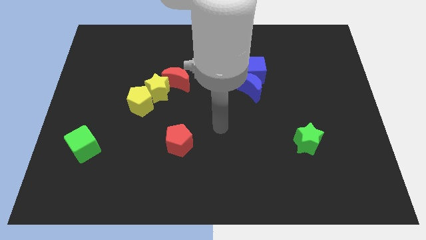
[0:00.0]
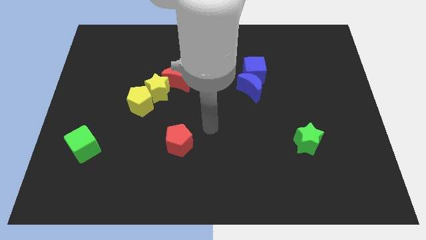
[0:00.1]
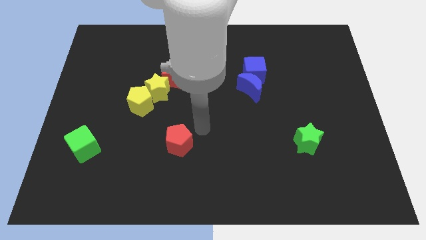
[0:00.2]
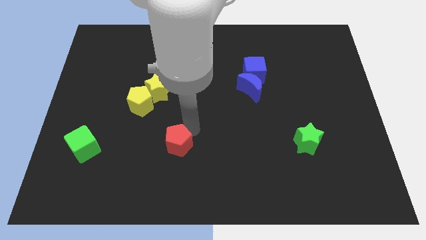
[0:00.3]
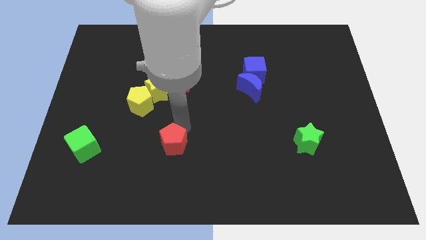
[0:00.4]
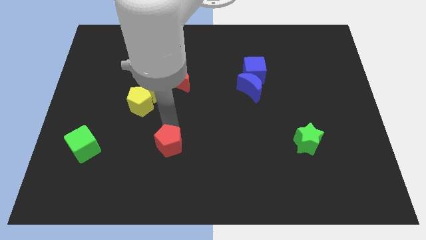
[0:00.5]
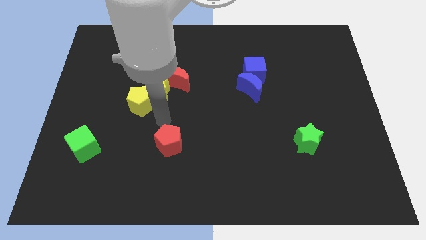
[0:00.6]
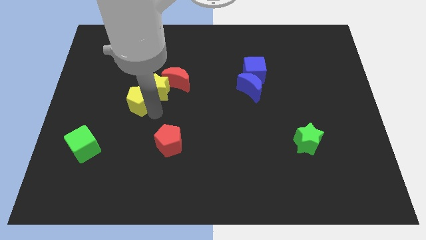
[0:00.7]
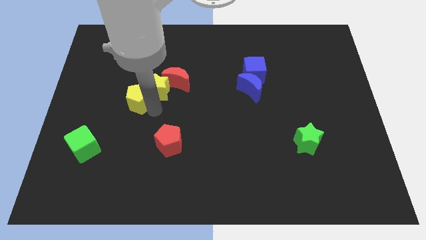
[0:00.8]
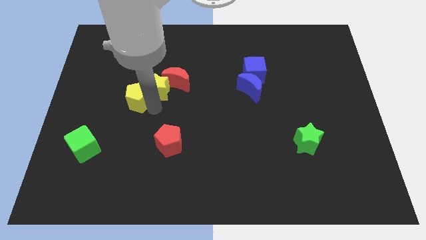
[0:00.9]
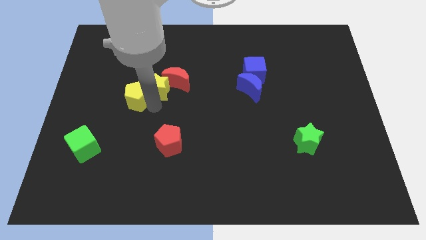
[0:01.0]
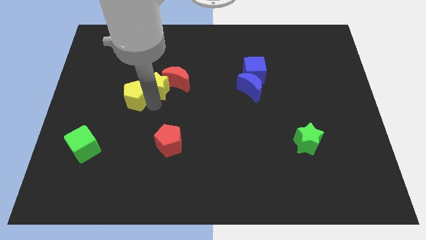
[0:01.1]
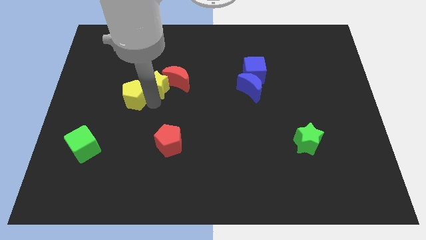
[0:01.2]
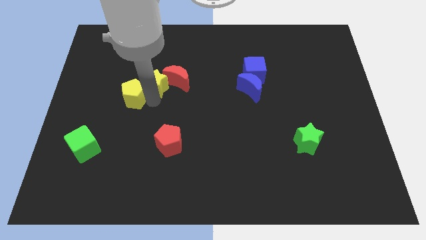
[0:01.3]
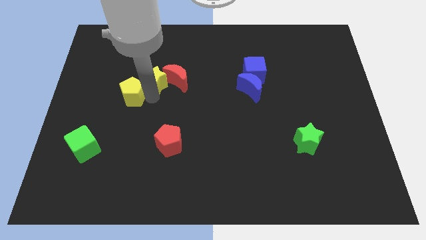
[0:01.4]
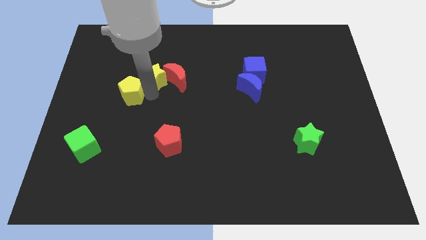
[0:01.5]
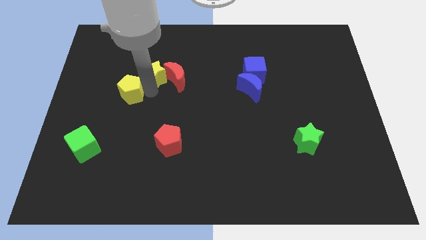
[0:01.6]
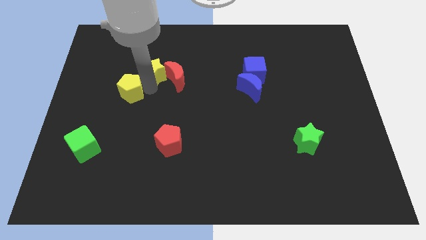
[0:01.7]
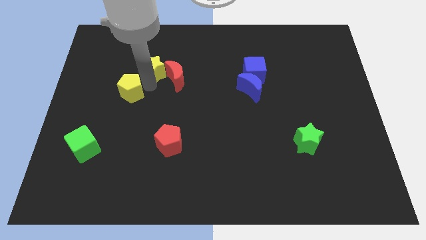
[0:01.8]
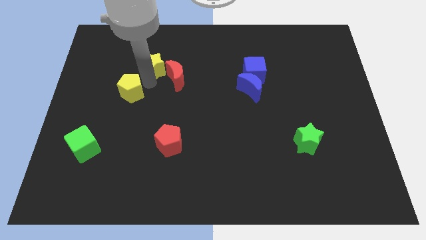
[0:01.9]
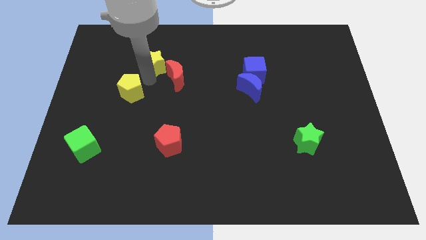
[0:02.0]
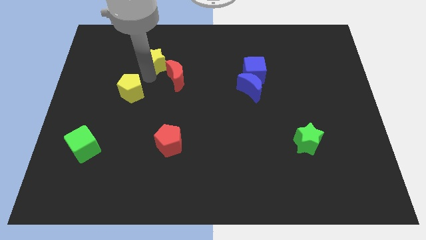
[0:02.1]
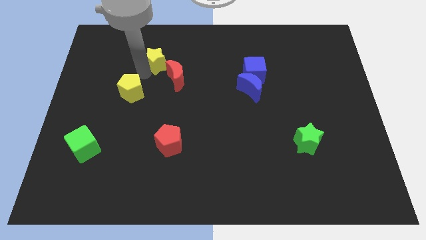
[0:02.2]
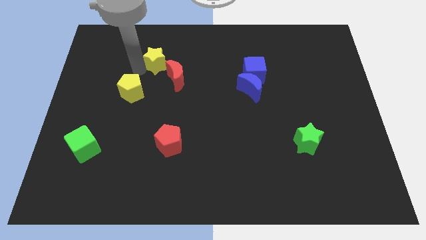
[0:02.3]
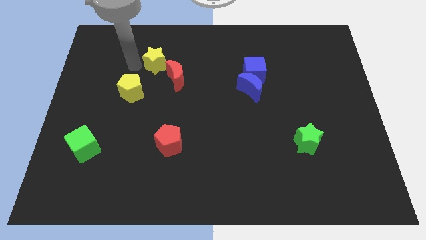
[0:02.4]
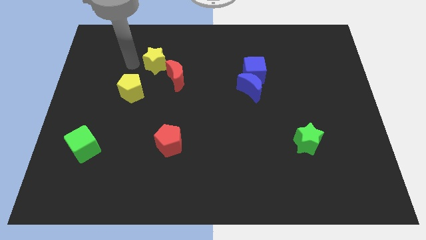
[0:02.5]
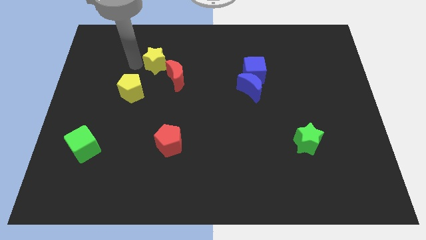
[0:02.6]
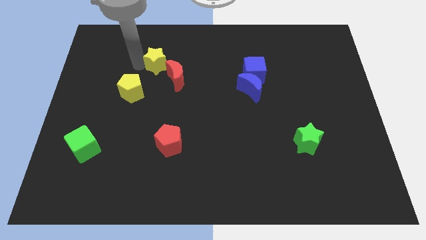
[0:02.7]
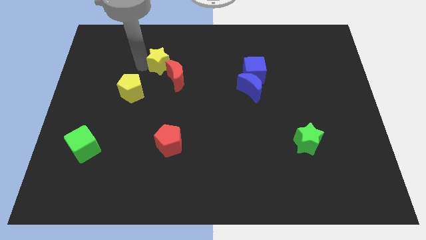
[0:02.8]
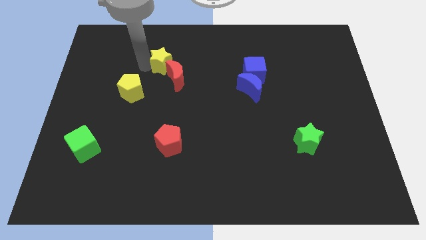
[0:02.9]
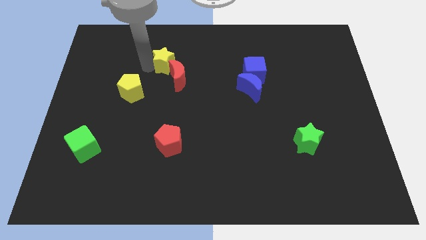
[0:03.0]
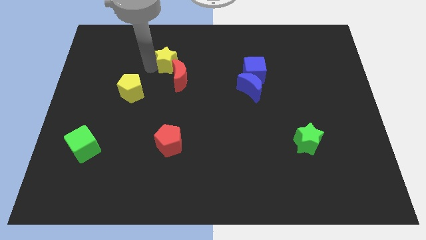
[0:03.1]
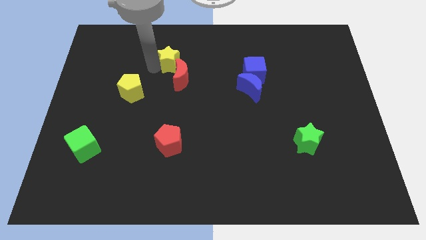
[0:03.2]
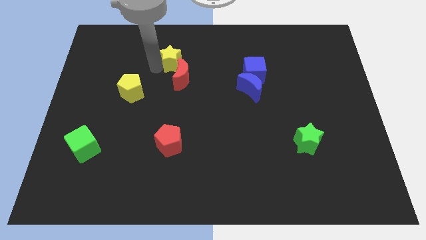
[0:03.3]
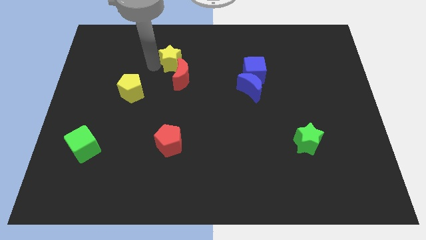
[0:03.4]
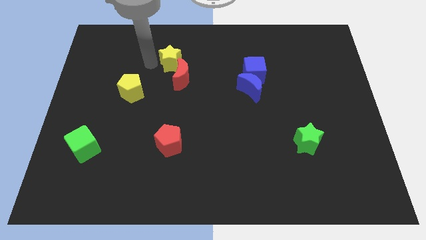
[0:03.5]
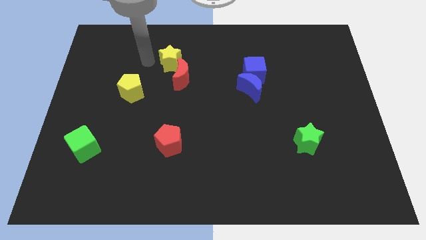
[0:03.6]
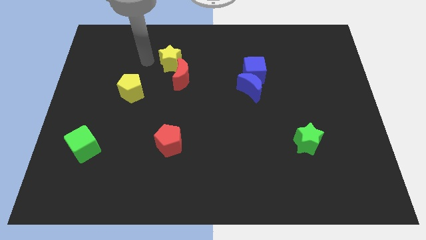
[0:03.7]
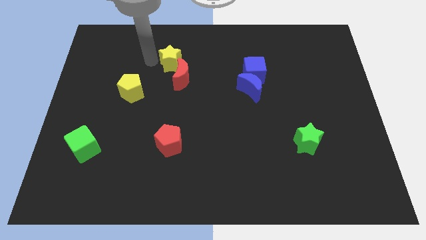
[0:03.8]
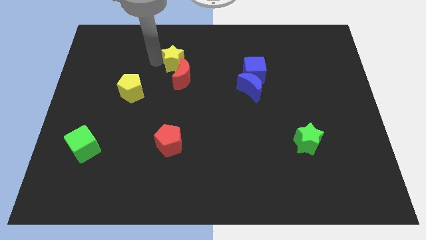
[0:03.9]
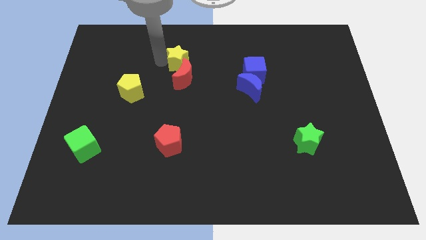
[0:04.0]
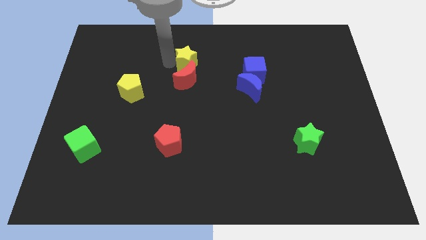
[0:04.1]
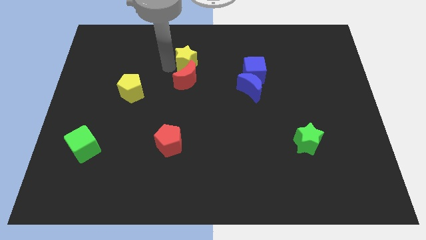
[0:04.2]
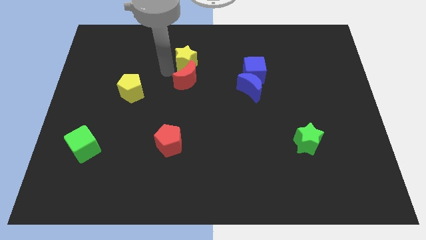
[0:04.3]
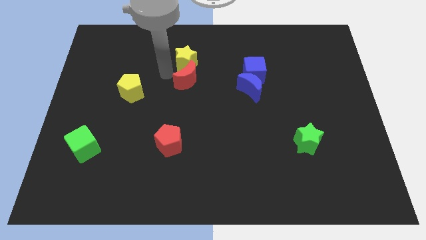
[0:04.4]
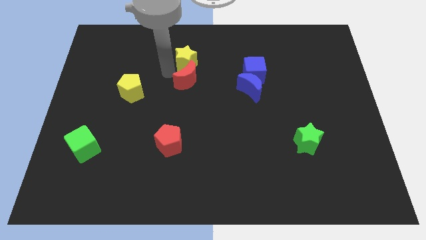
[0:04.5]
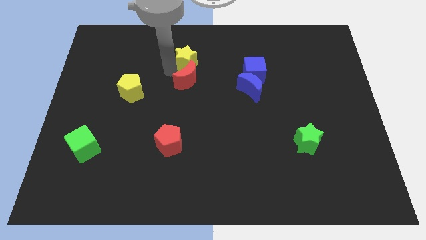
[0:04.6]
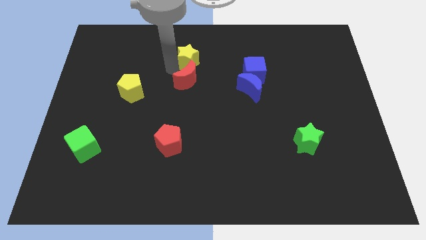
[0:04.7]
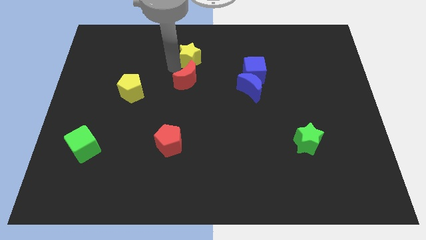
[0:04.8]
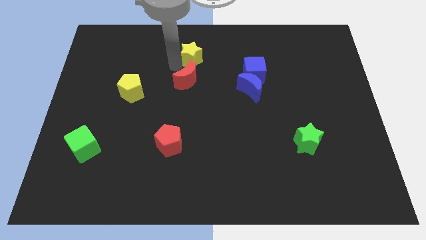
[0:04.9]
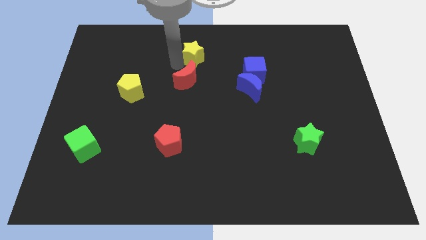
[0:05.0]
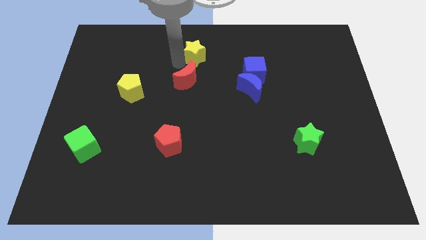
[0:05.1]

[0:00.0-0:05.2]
slide the yellow star to the top side

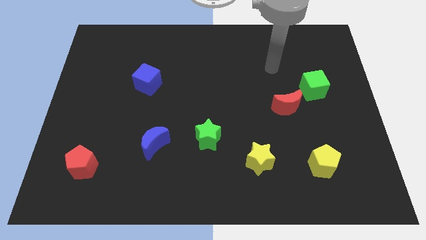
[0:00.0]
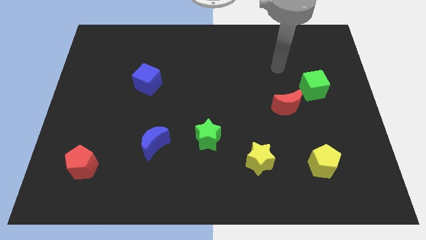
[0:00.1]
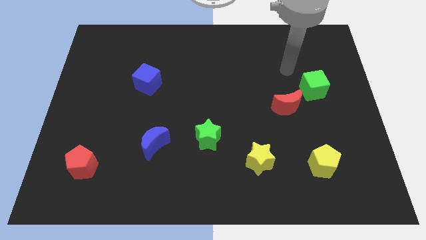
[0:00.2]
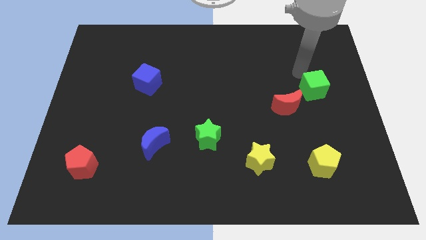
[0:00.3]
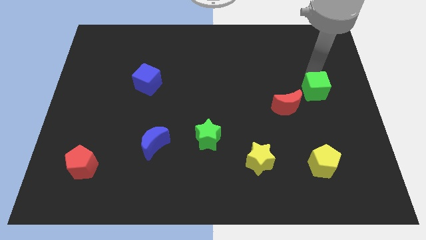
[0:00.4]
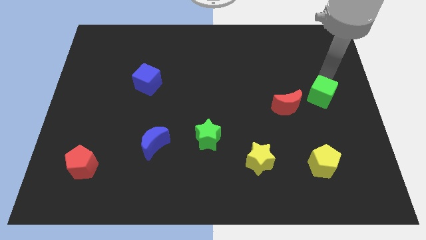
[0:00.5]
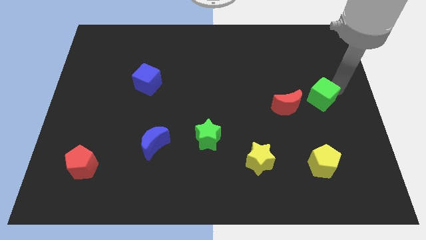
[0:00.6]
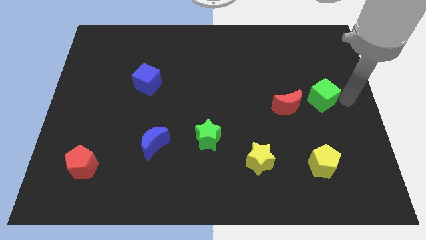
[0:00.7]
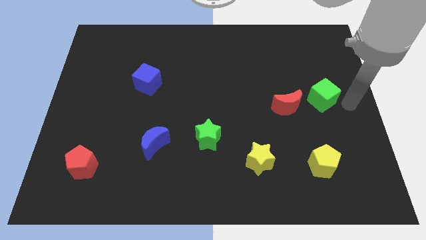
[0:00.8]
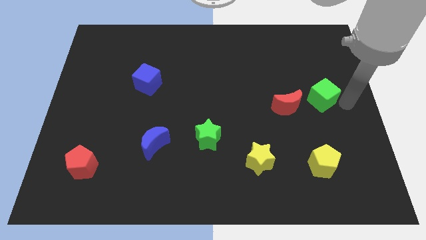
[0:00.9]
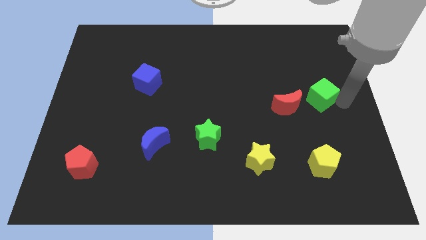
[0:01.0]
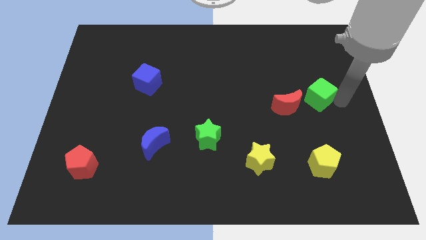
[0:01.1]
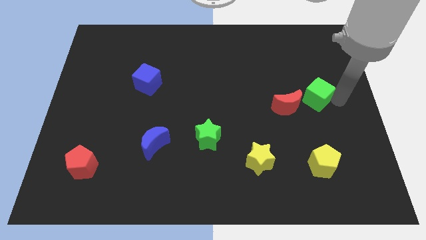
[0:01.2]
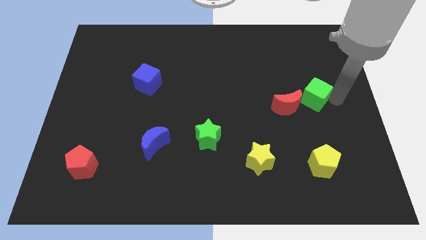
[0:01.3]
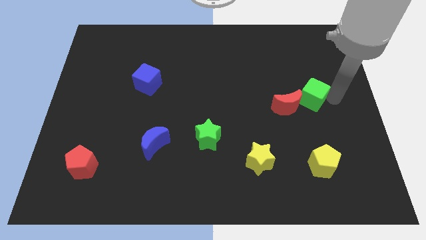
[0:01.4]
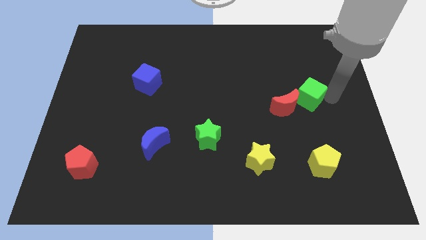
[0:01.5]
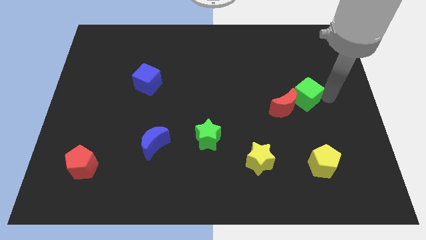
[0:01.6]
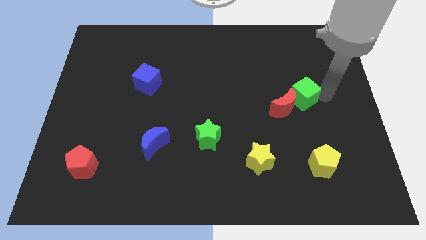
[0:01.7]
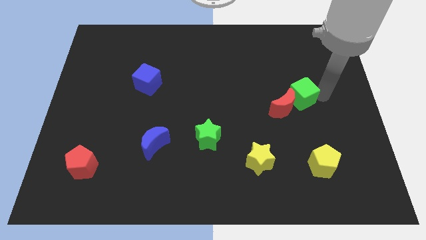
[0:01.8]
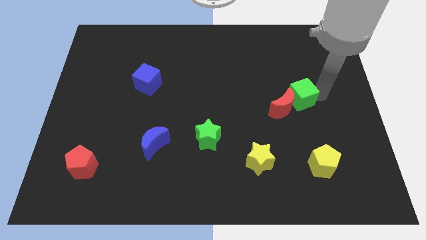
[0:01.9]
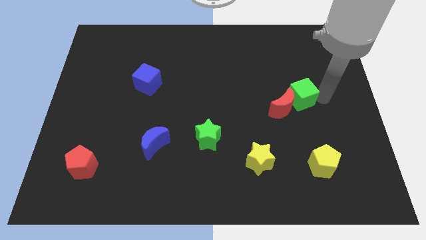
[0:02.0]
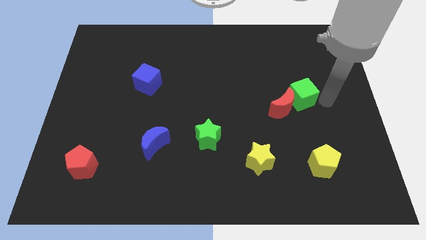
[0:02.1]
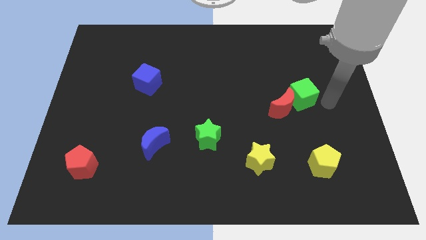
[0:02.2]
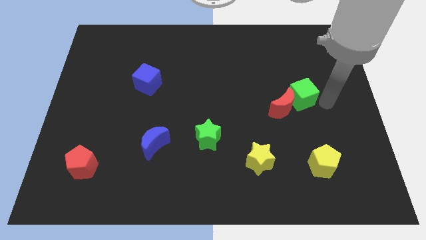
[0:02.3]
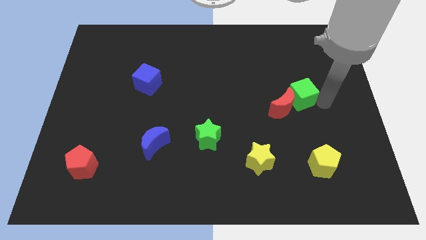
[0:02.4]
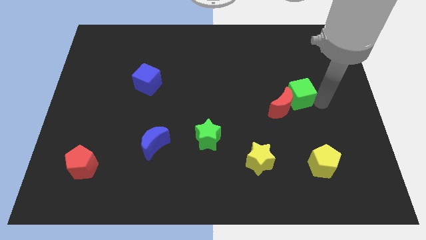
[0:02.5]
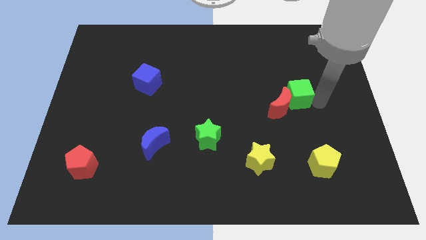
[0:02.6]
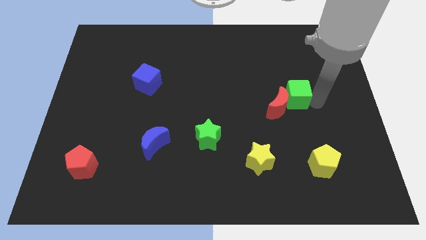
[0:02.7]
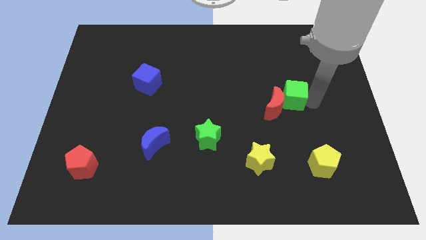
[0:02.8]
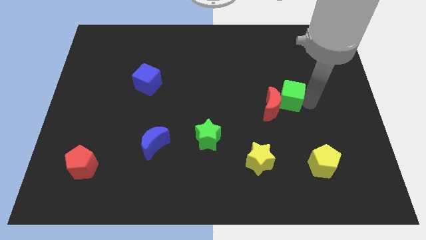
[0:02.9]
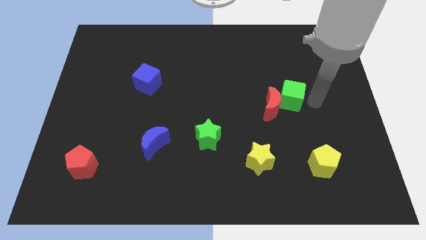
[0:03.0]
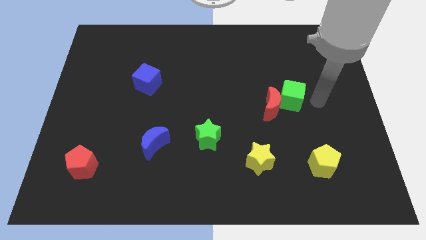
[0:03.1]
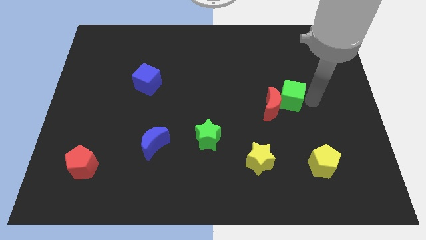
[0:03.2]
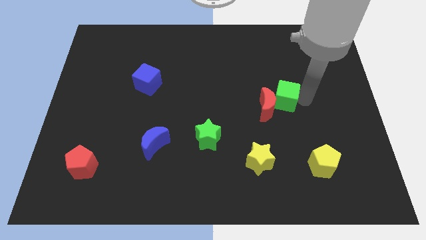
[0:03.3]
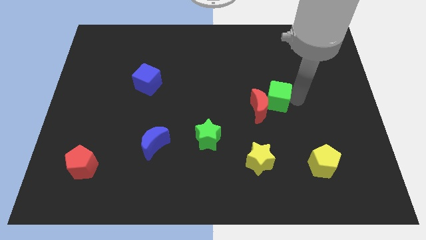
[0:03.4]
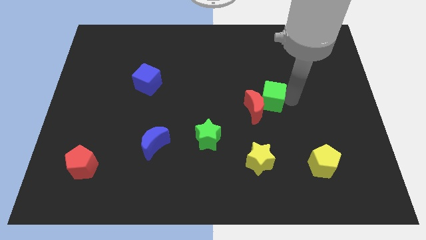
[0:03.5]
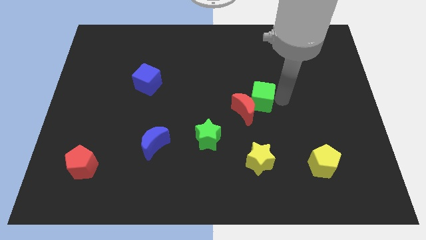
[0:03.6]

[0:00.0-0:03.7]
push the green cube to the middle
